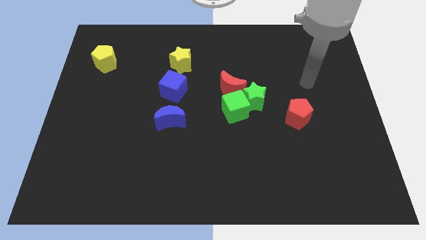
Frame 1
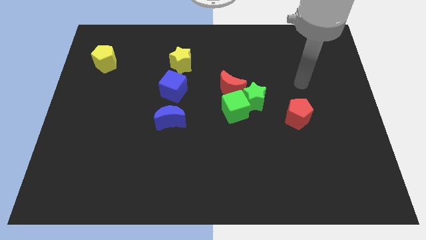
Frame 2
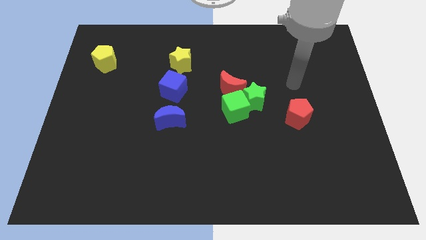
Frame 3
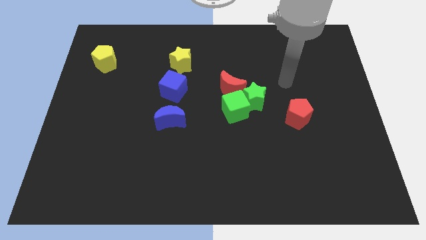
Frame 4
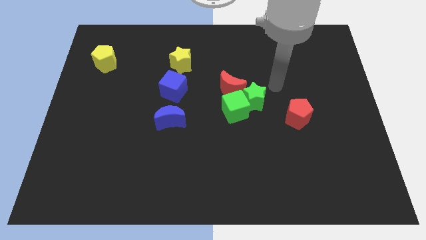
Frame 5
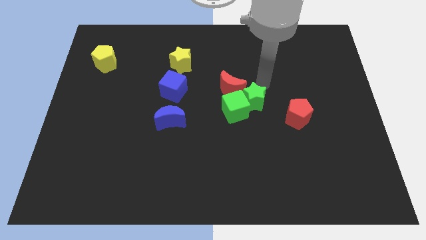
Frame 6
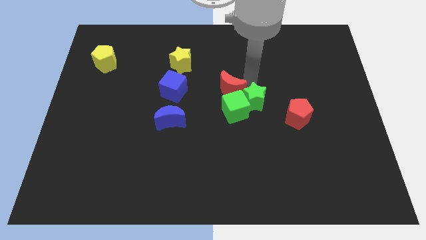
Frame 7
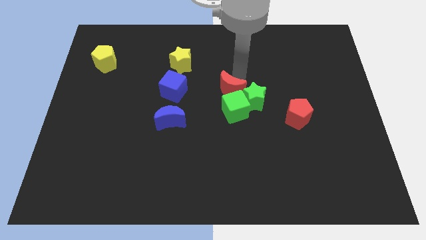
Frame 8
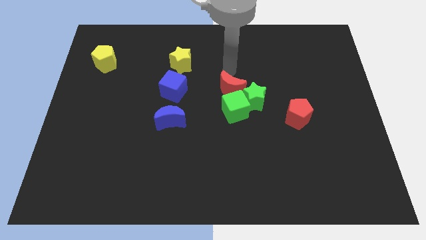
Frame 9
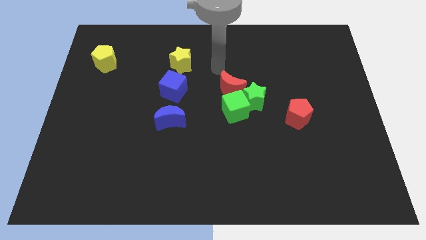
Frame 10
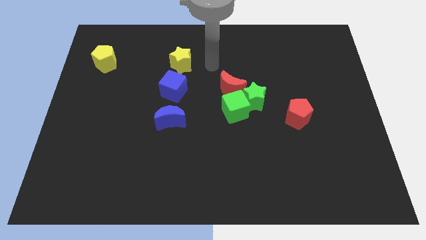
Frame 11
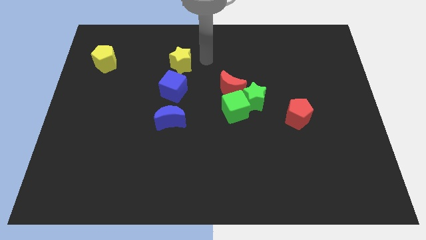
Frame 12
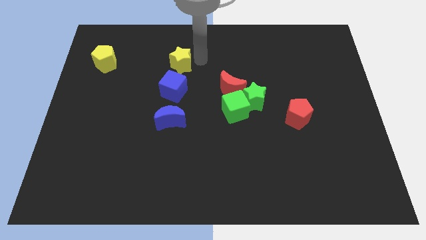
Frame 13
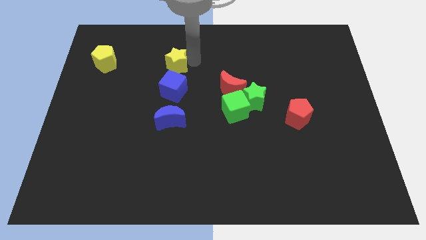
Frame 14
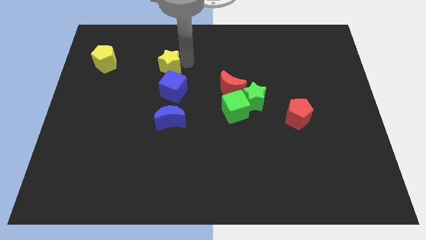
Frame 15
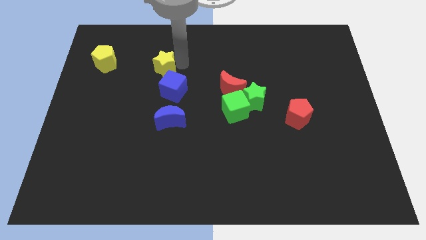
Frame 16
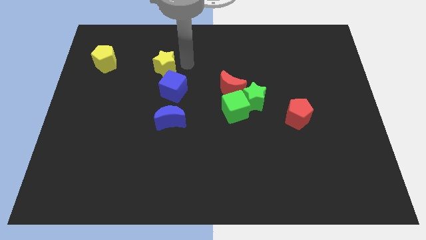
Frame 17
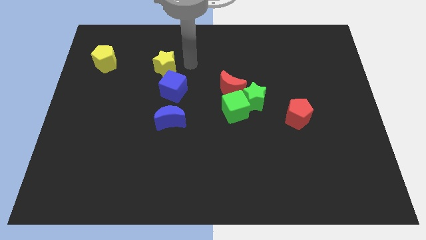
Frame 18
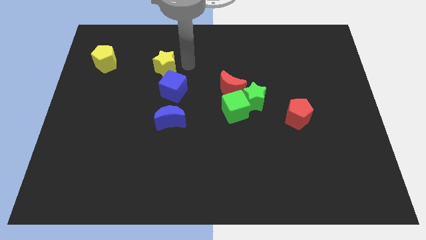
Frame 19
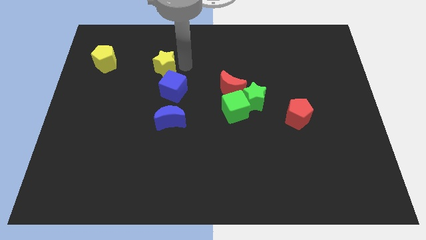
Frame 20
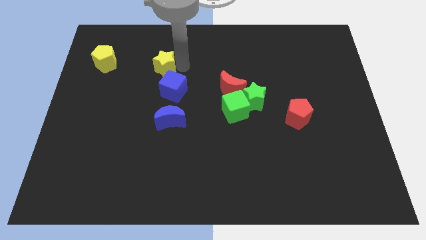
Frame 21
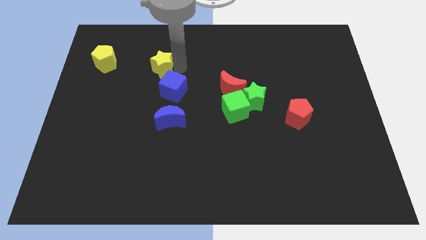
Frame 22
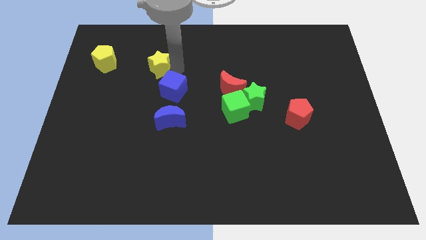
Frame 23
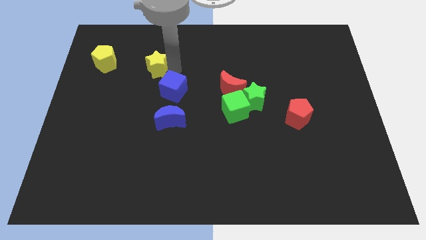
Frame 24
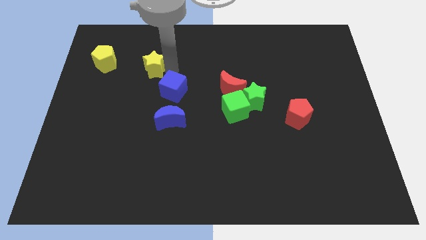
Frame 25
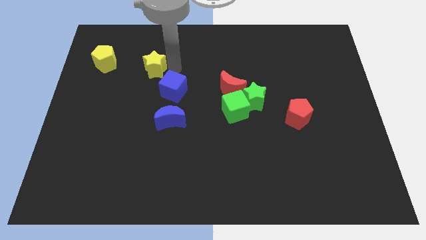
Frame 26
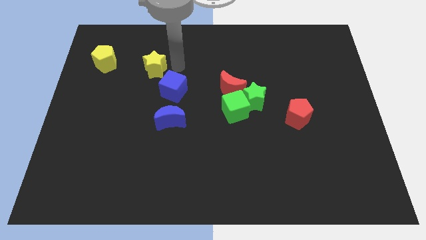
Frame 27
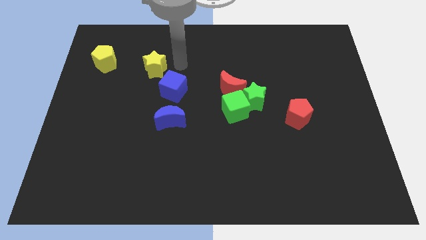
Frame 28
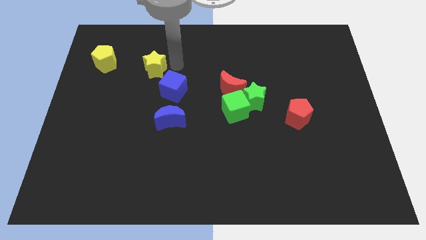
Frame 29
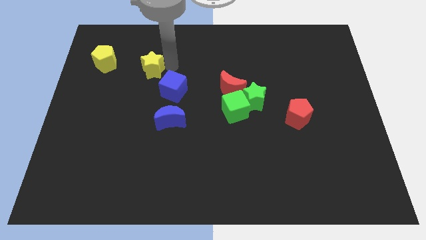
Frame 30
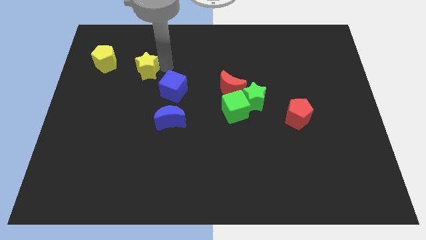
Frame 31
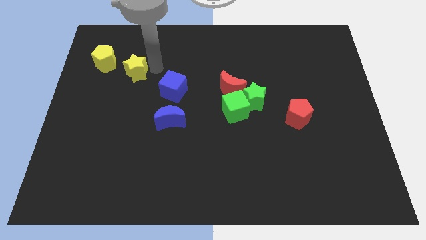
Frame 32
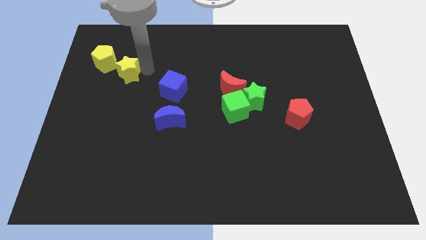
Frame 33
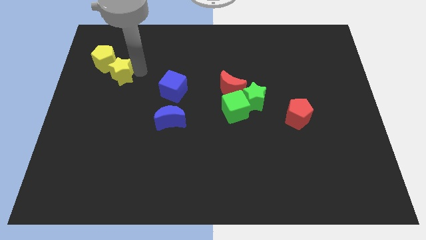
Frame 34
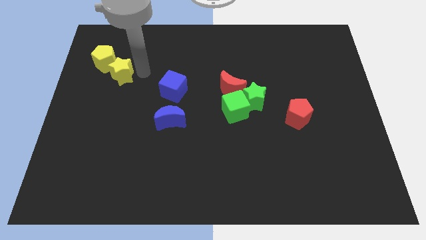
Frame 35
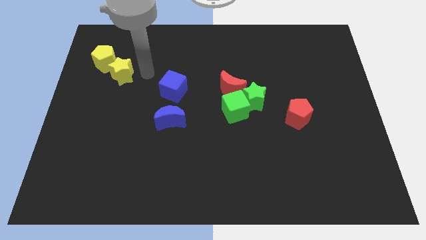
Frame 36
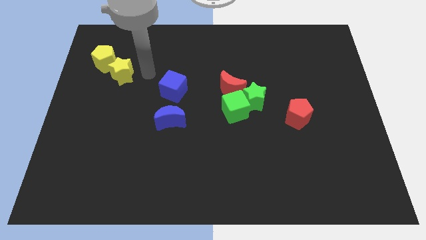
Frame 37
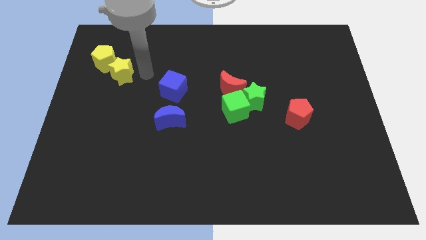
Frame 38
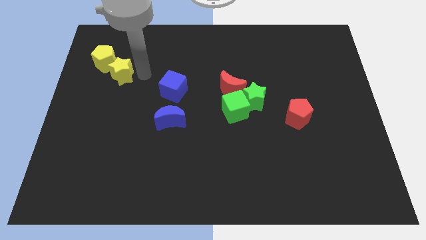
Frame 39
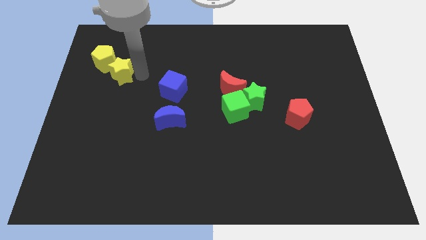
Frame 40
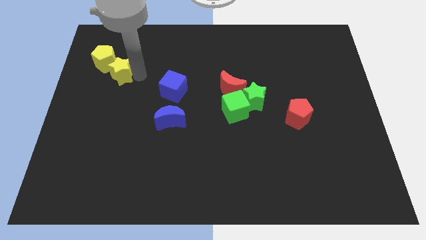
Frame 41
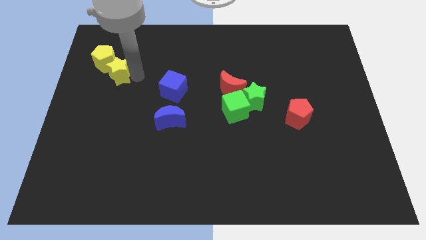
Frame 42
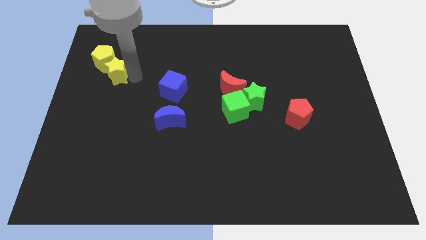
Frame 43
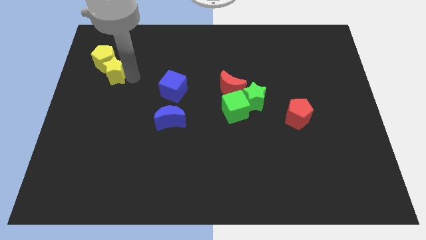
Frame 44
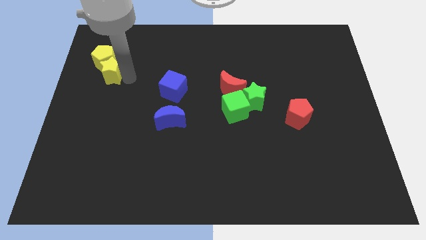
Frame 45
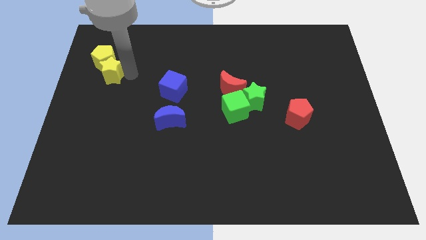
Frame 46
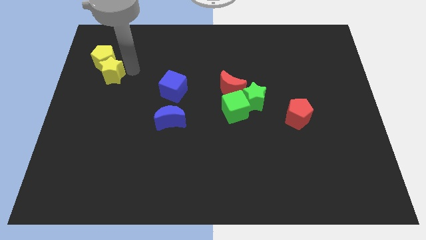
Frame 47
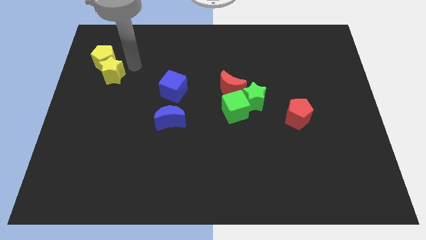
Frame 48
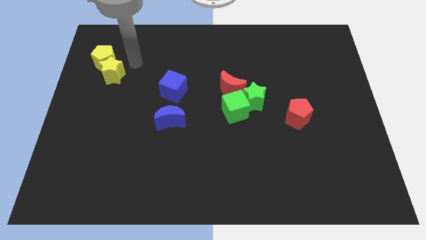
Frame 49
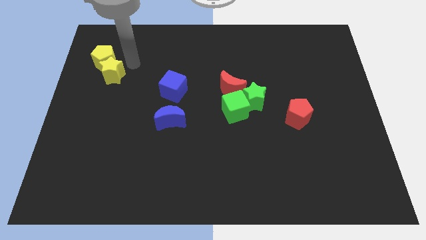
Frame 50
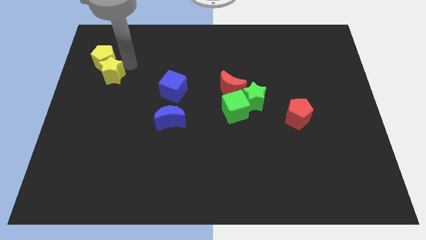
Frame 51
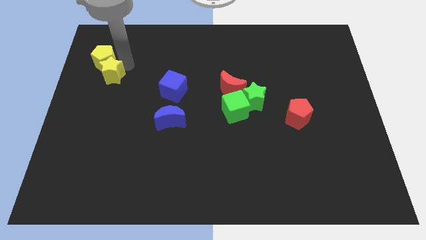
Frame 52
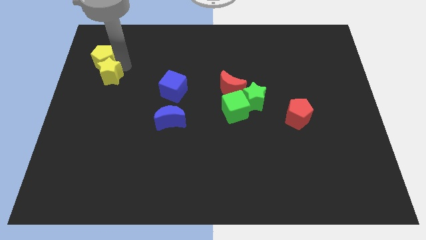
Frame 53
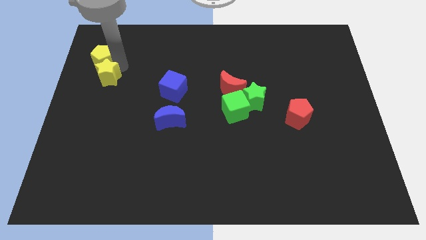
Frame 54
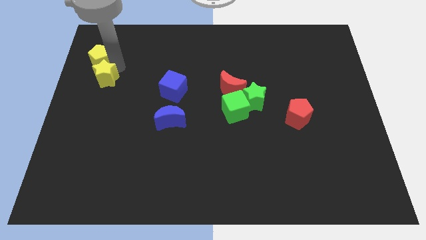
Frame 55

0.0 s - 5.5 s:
push the yellow star to the left side
